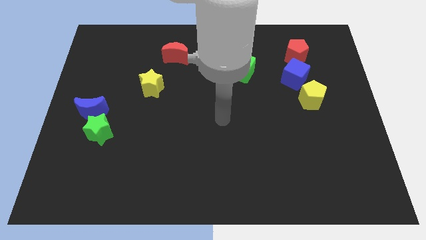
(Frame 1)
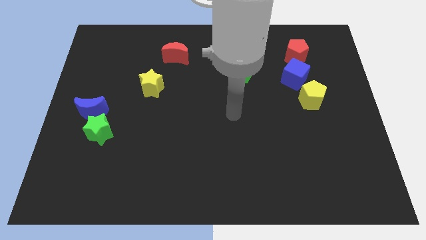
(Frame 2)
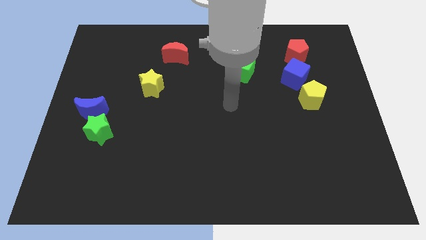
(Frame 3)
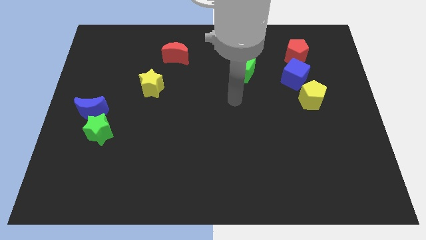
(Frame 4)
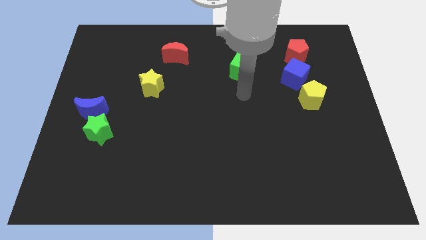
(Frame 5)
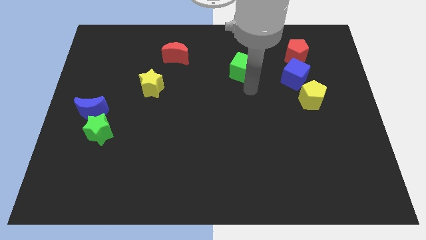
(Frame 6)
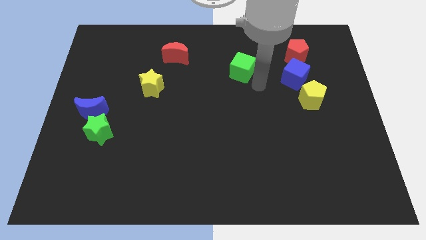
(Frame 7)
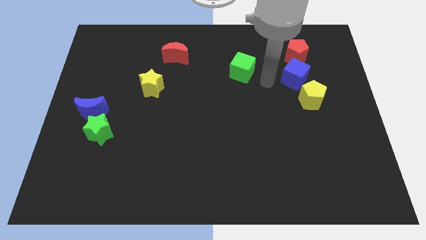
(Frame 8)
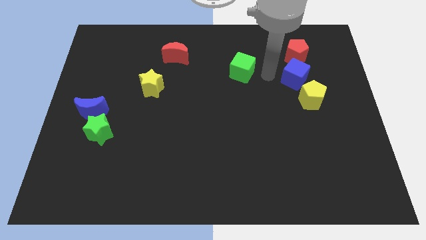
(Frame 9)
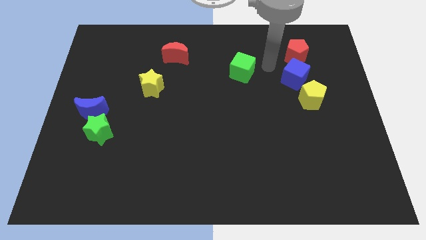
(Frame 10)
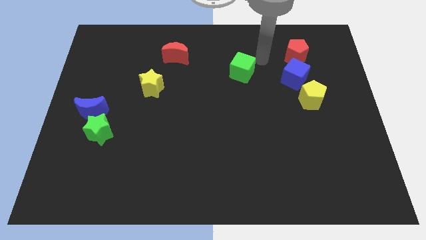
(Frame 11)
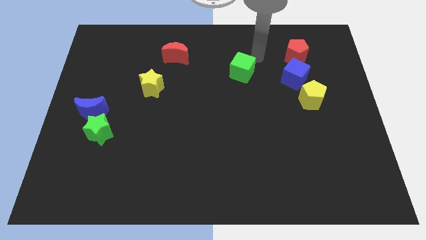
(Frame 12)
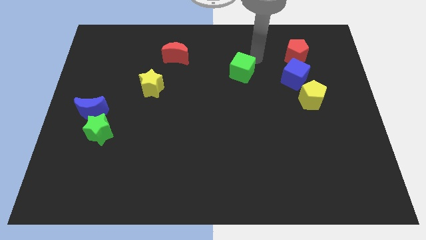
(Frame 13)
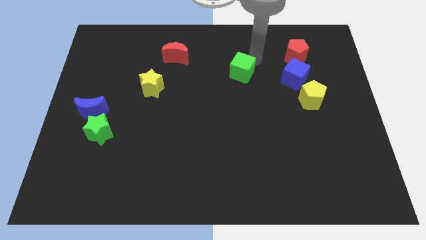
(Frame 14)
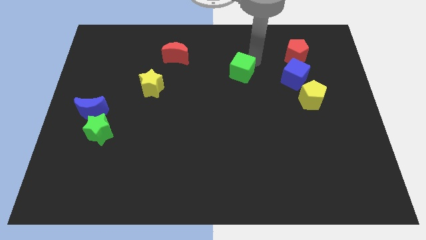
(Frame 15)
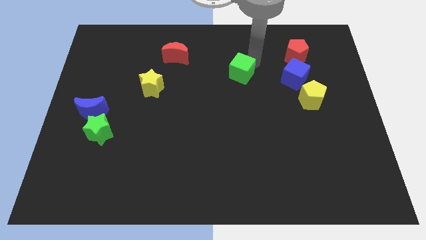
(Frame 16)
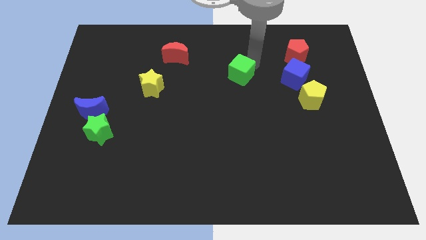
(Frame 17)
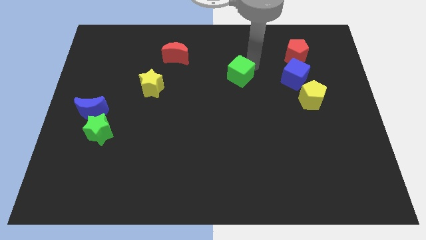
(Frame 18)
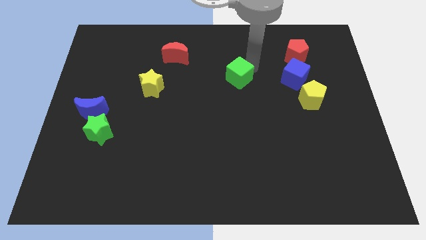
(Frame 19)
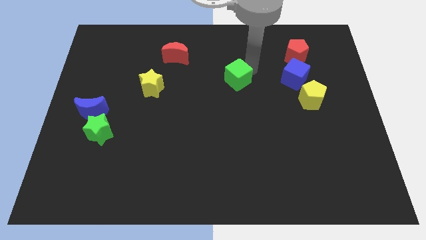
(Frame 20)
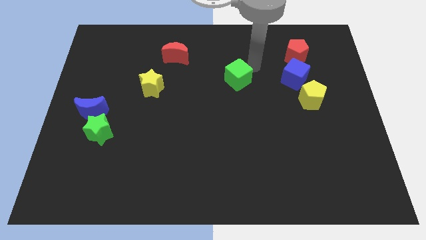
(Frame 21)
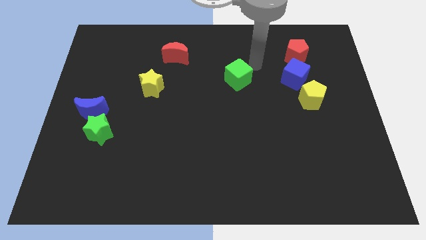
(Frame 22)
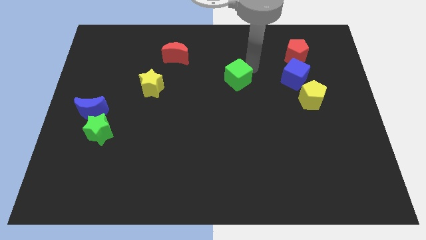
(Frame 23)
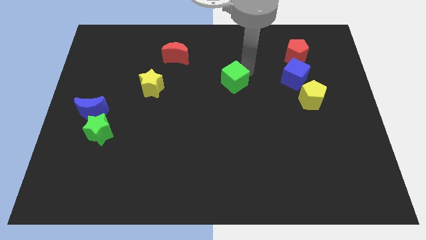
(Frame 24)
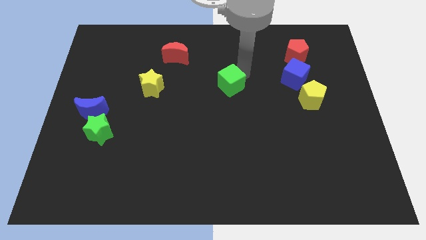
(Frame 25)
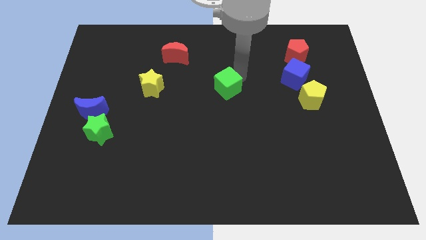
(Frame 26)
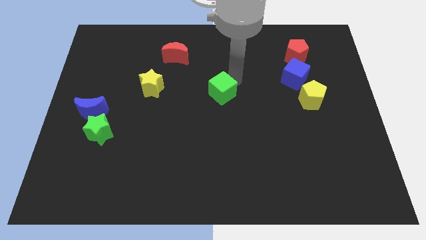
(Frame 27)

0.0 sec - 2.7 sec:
push the green cube down and left a little bit

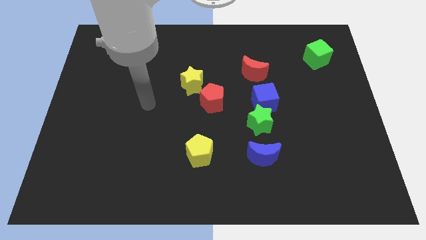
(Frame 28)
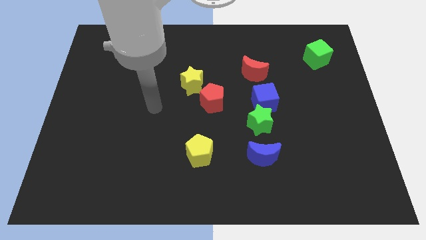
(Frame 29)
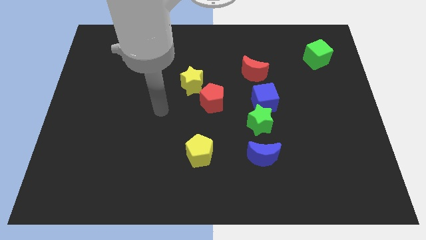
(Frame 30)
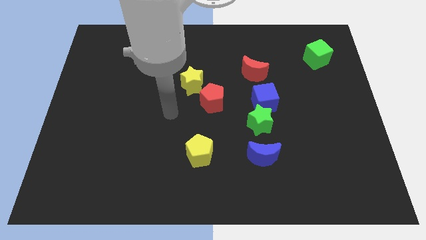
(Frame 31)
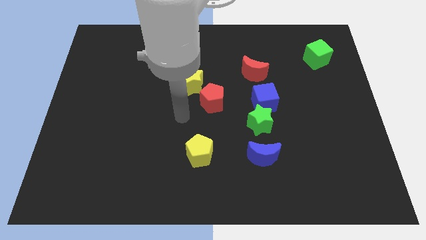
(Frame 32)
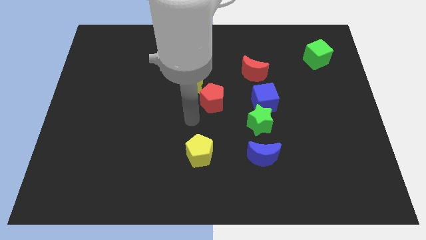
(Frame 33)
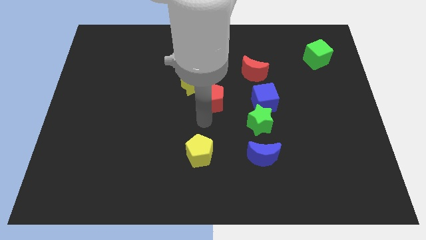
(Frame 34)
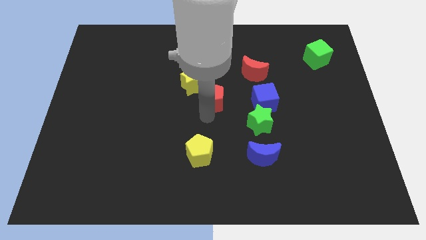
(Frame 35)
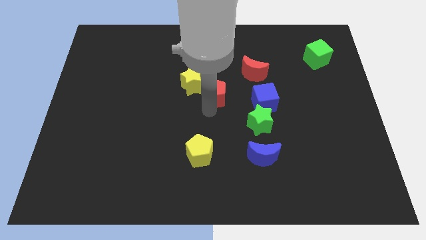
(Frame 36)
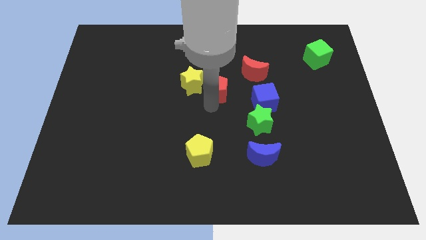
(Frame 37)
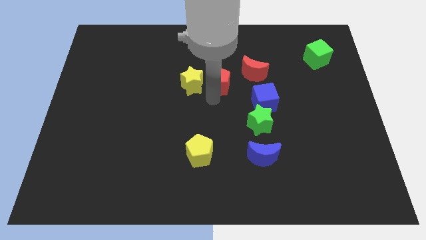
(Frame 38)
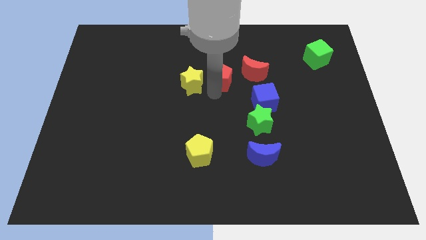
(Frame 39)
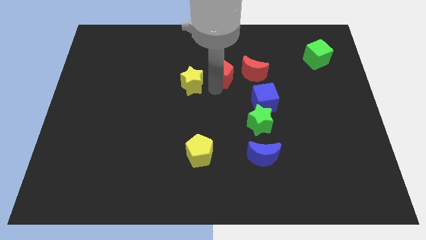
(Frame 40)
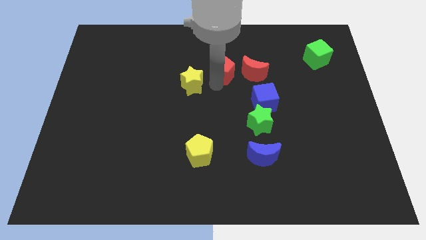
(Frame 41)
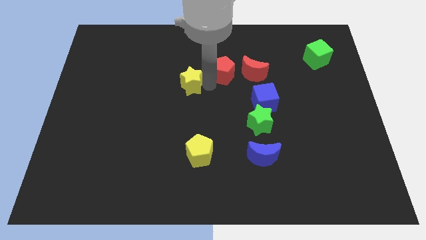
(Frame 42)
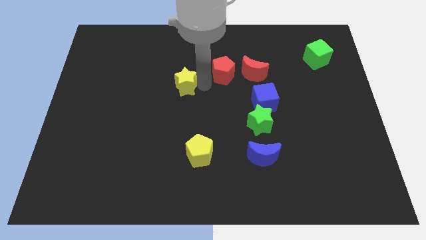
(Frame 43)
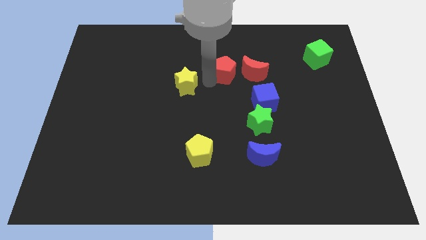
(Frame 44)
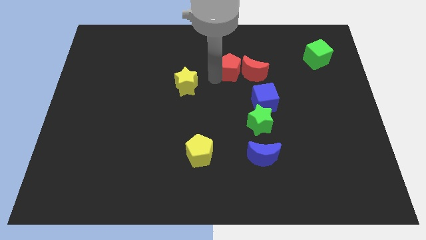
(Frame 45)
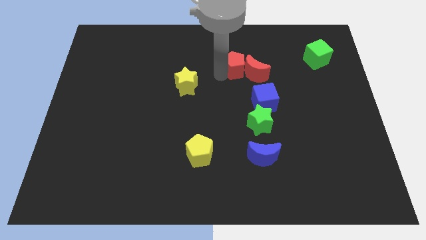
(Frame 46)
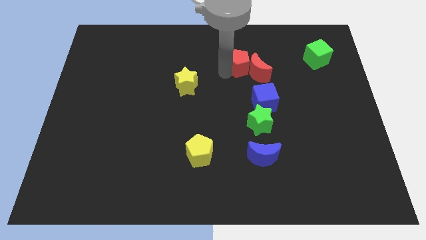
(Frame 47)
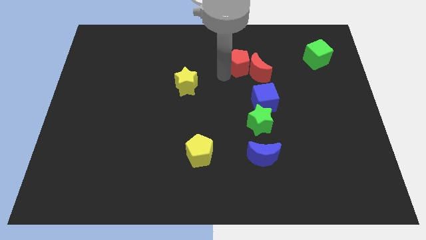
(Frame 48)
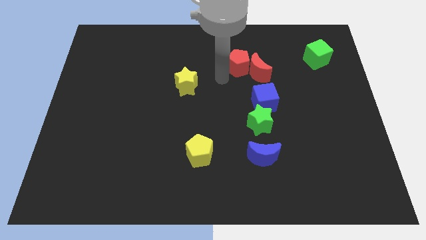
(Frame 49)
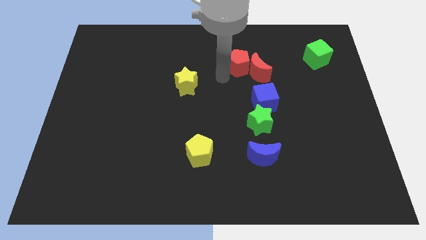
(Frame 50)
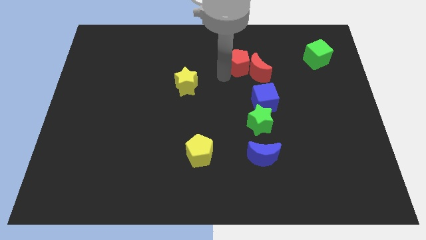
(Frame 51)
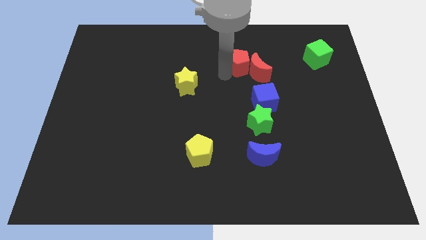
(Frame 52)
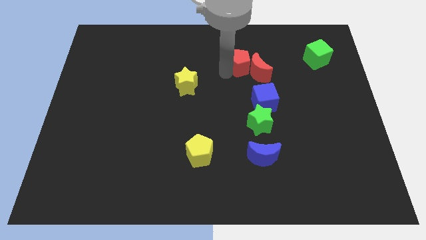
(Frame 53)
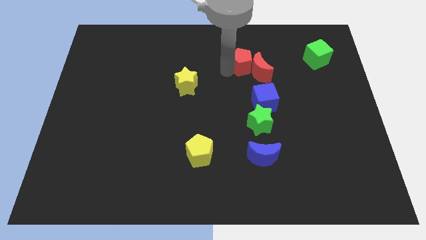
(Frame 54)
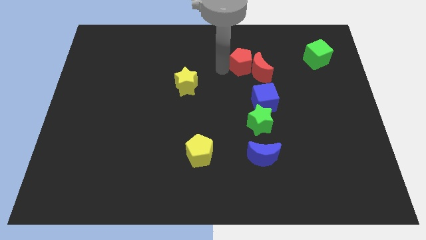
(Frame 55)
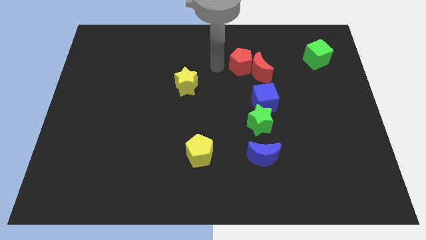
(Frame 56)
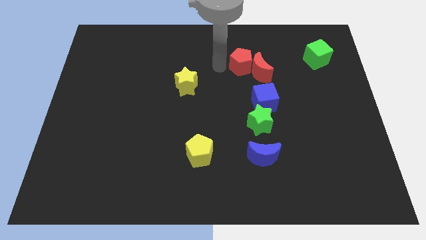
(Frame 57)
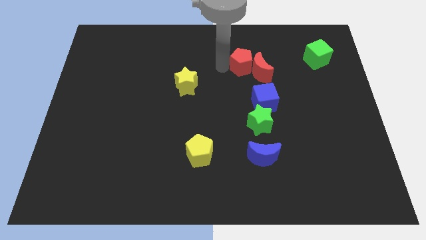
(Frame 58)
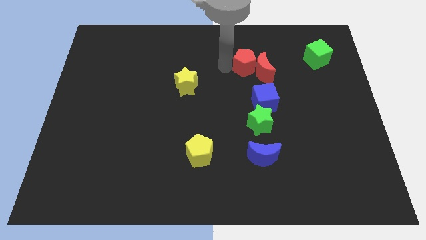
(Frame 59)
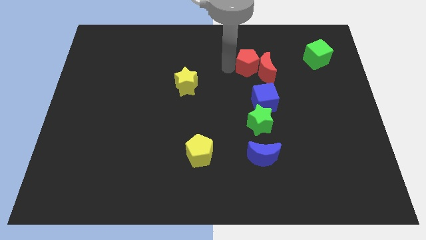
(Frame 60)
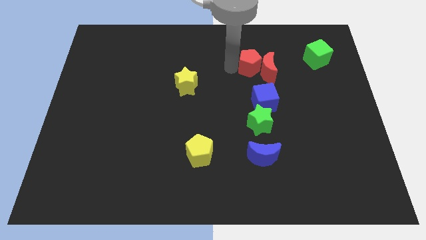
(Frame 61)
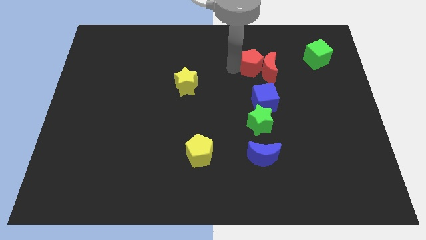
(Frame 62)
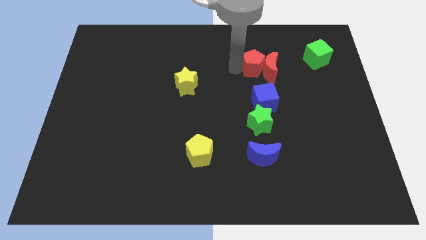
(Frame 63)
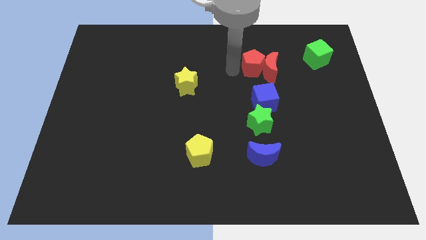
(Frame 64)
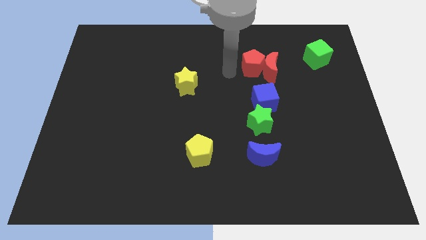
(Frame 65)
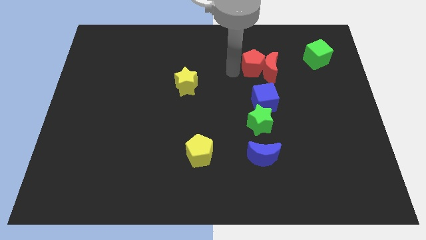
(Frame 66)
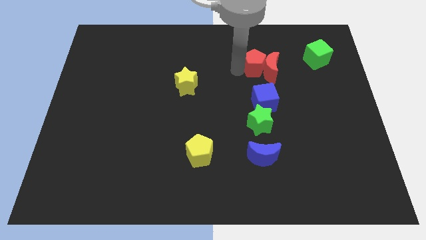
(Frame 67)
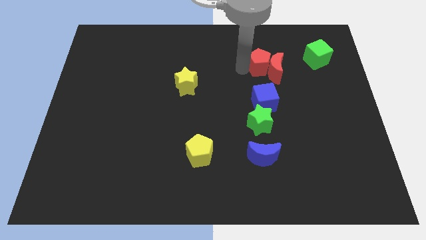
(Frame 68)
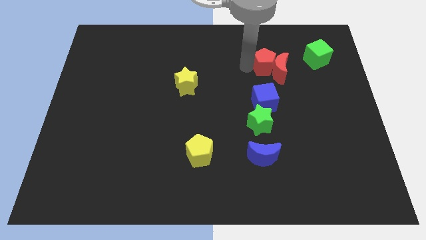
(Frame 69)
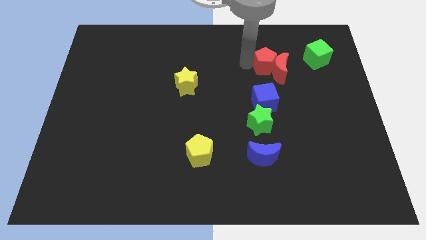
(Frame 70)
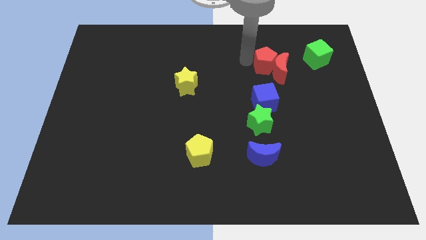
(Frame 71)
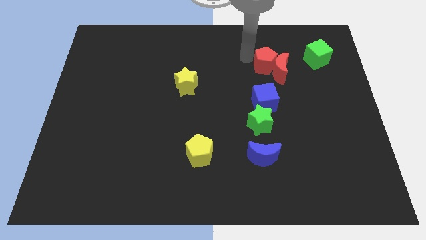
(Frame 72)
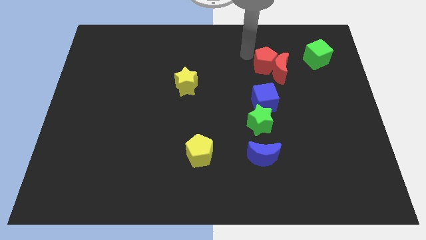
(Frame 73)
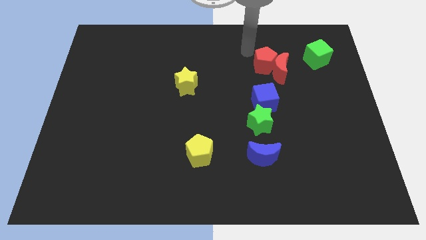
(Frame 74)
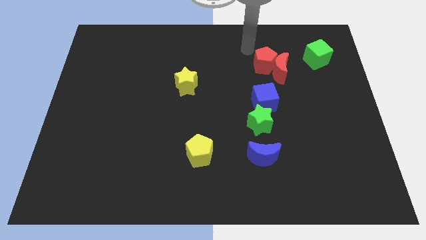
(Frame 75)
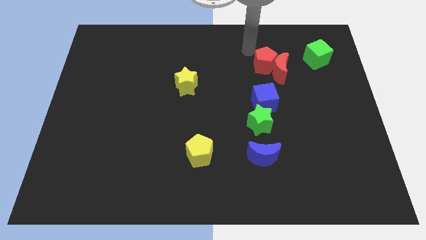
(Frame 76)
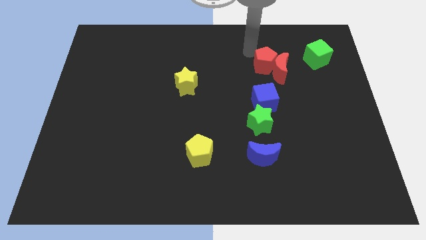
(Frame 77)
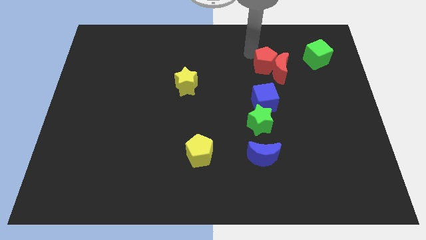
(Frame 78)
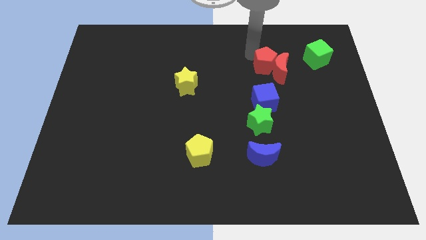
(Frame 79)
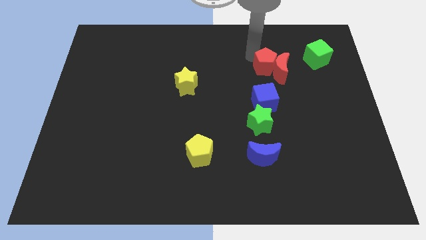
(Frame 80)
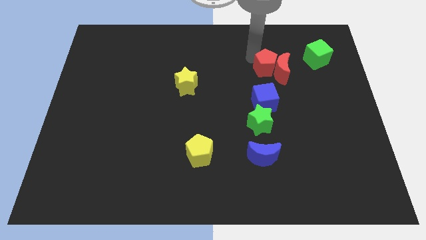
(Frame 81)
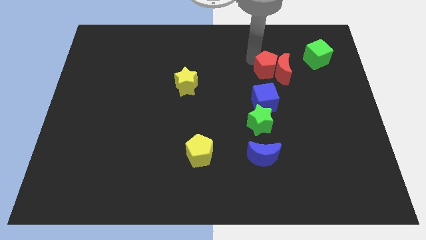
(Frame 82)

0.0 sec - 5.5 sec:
slightly slide the red pentagon to the right
